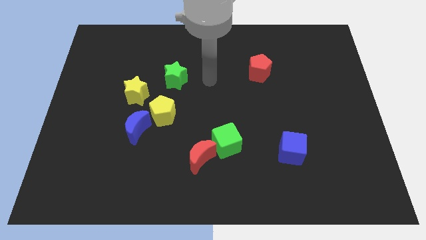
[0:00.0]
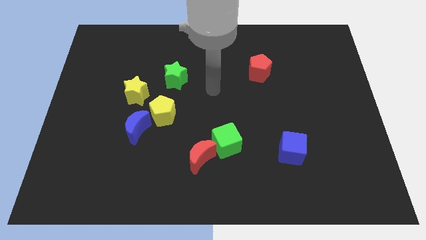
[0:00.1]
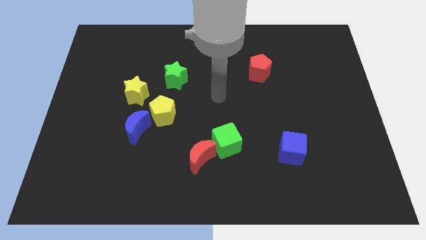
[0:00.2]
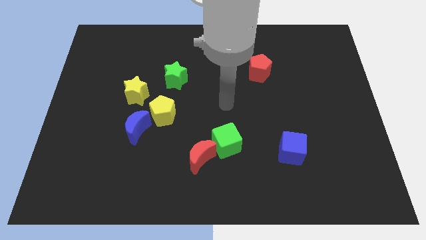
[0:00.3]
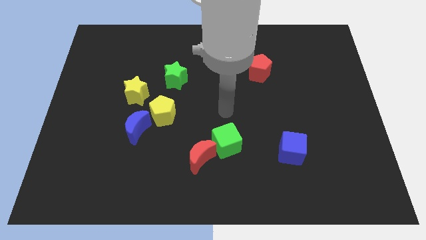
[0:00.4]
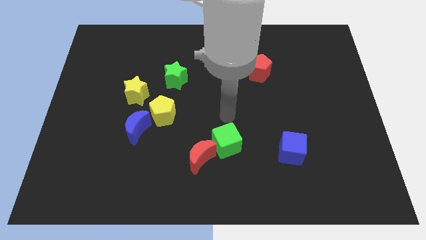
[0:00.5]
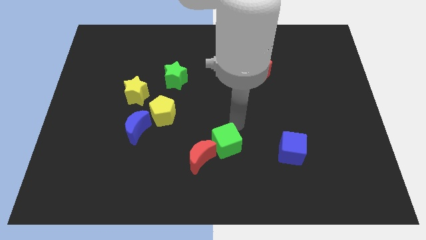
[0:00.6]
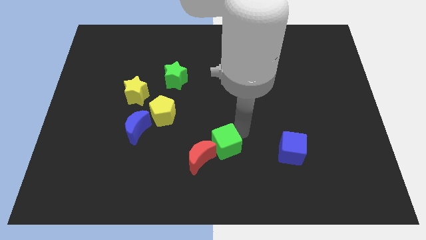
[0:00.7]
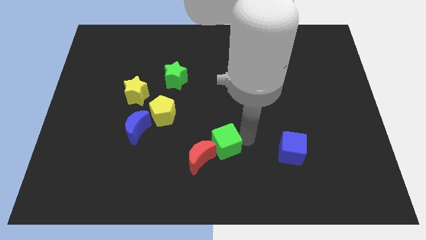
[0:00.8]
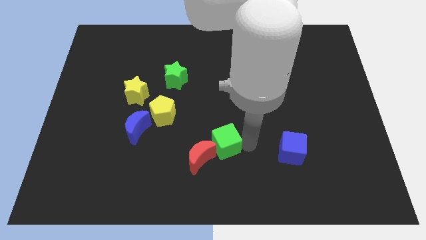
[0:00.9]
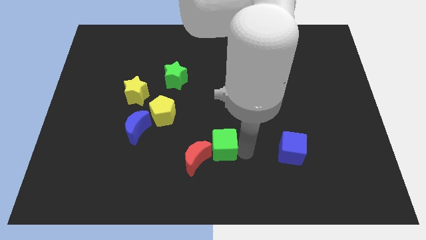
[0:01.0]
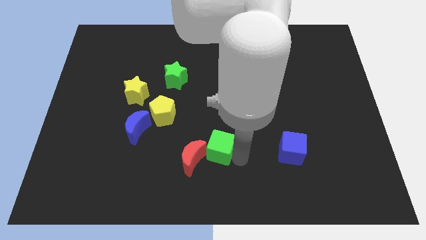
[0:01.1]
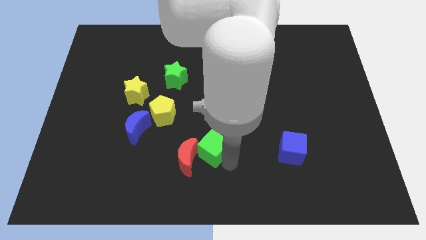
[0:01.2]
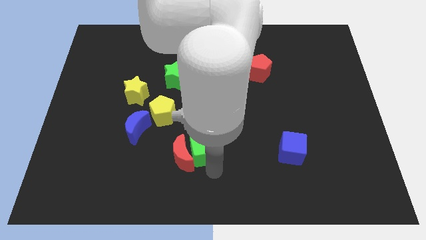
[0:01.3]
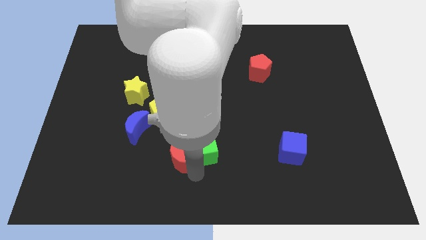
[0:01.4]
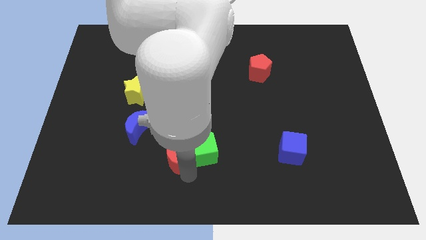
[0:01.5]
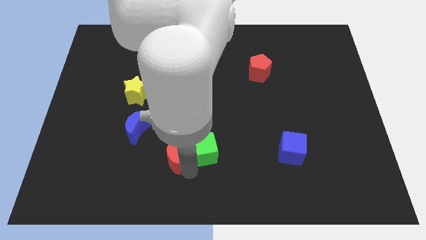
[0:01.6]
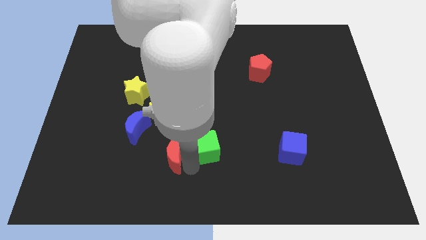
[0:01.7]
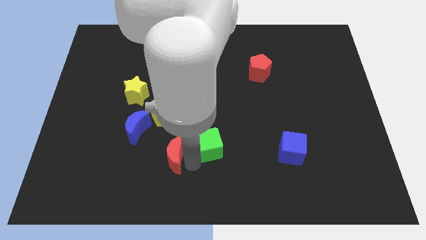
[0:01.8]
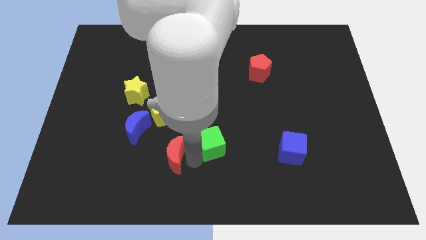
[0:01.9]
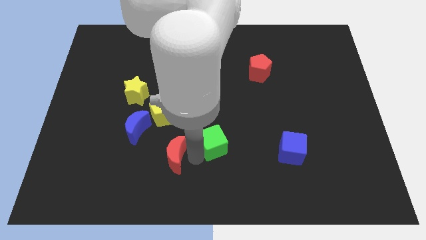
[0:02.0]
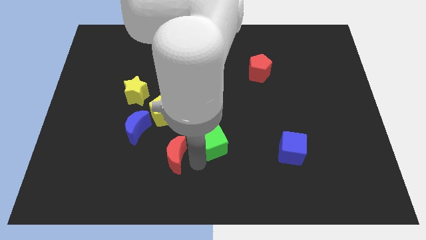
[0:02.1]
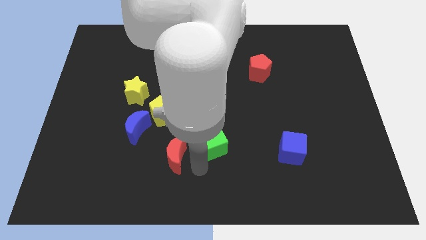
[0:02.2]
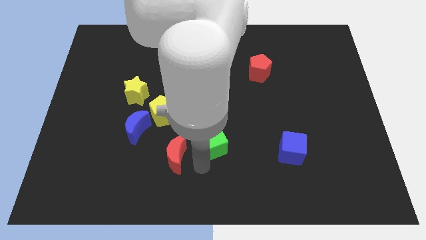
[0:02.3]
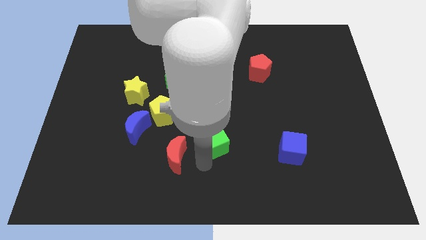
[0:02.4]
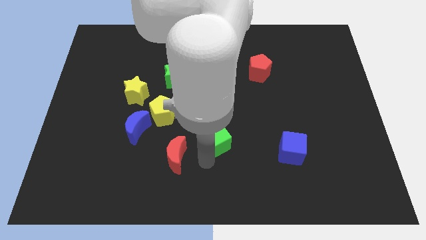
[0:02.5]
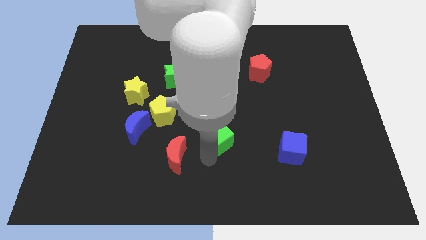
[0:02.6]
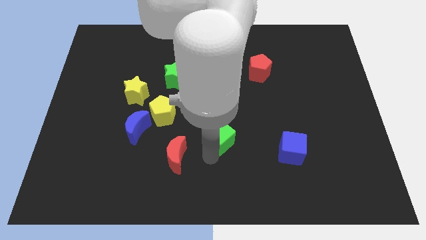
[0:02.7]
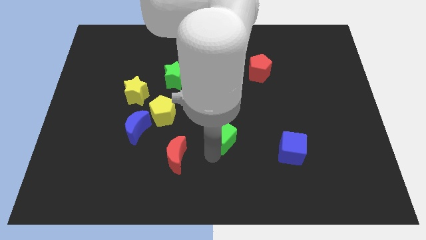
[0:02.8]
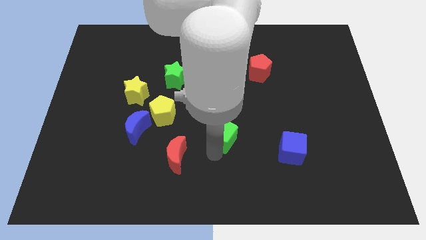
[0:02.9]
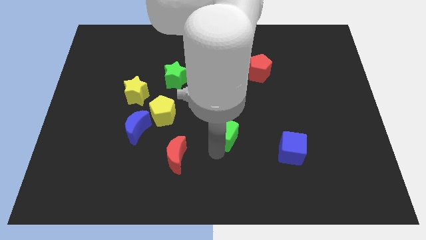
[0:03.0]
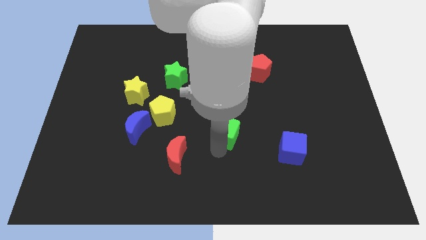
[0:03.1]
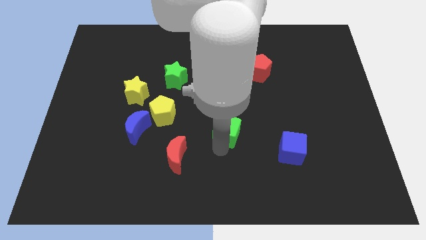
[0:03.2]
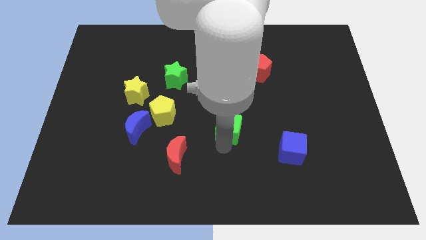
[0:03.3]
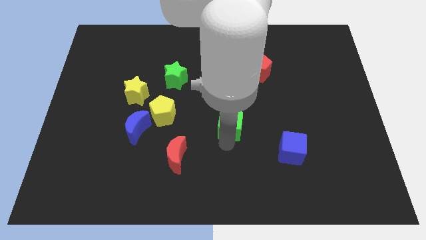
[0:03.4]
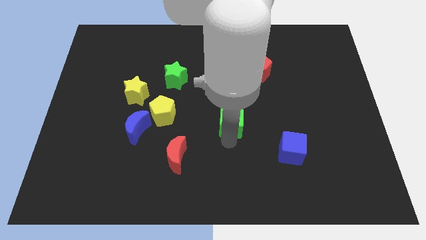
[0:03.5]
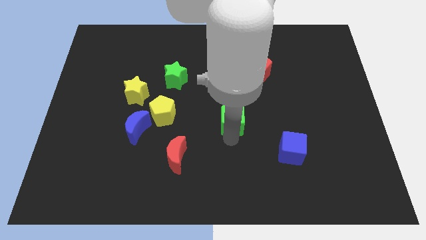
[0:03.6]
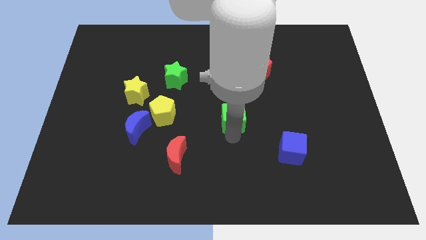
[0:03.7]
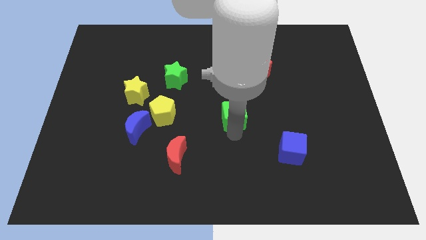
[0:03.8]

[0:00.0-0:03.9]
push the green cube upwards a bit

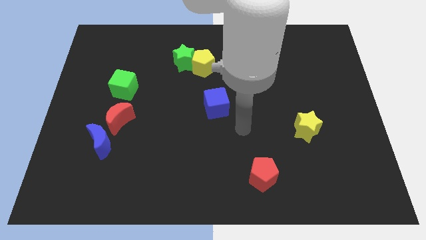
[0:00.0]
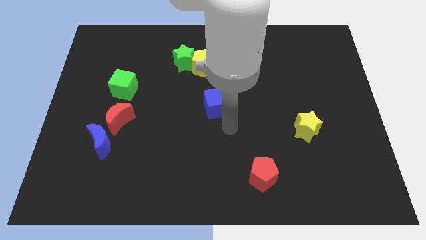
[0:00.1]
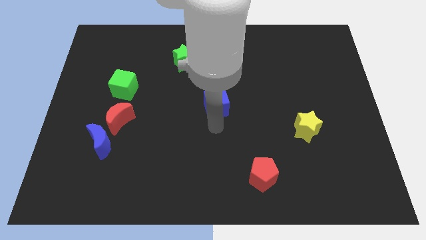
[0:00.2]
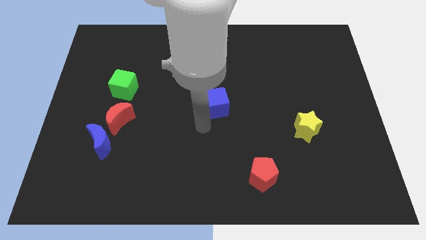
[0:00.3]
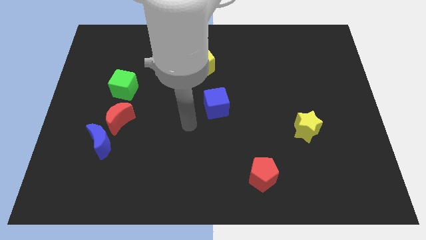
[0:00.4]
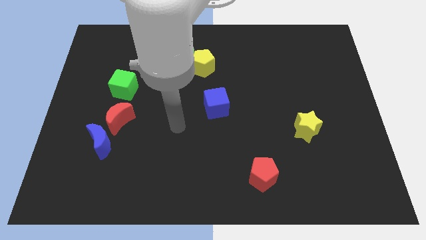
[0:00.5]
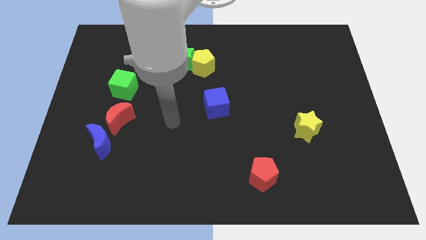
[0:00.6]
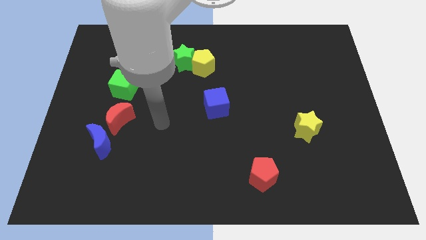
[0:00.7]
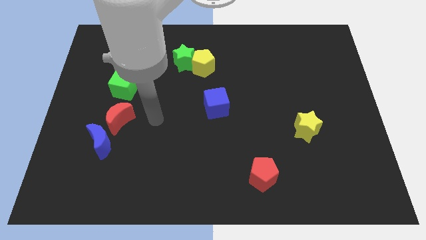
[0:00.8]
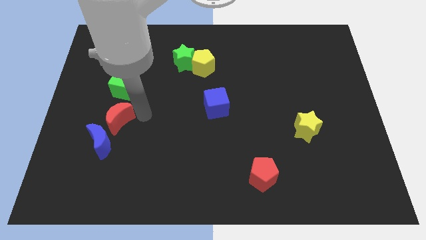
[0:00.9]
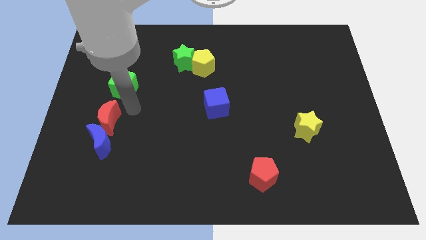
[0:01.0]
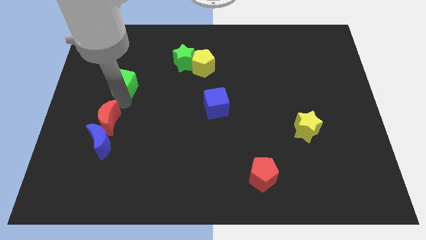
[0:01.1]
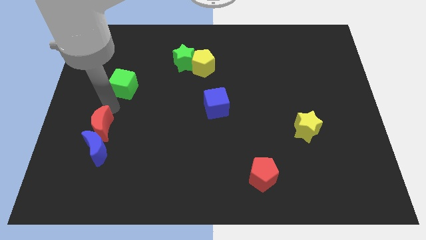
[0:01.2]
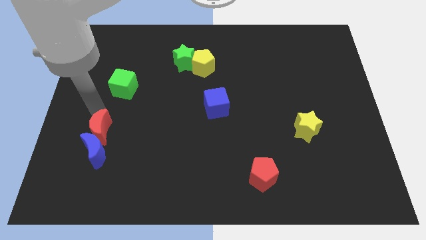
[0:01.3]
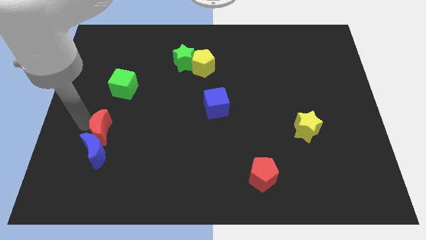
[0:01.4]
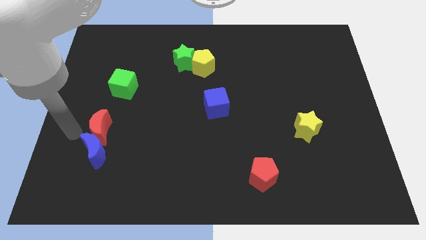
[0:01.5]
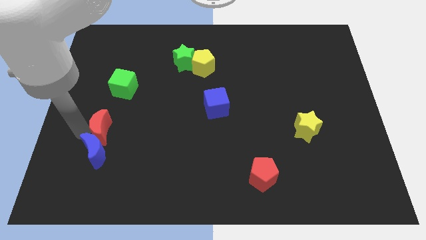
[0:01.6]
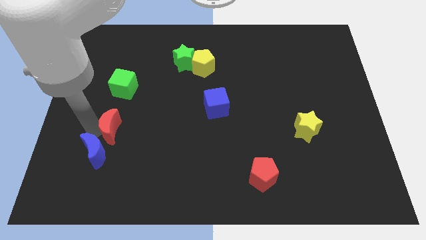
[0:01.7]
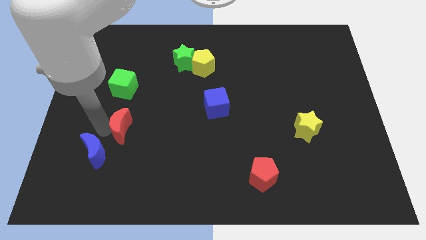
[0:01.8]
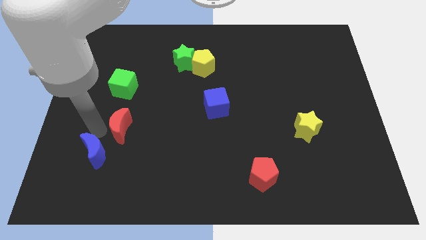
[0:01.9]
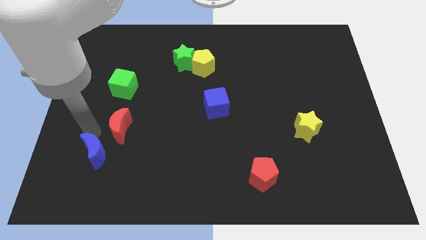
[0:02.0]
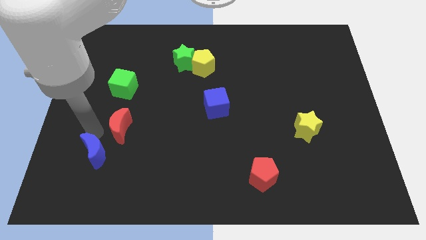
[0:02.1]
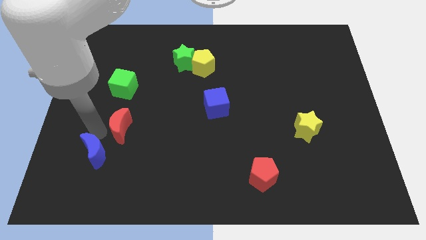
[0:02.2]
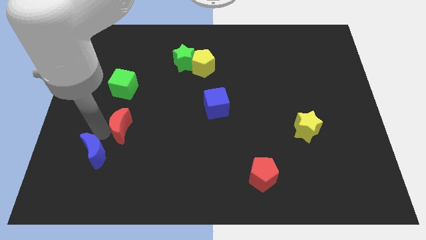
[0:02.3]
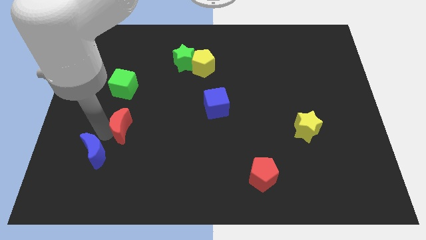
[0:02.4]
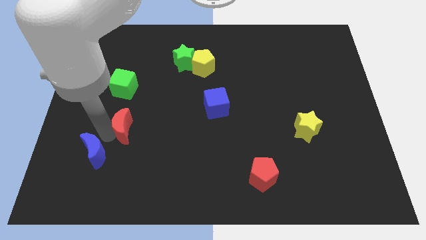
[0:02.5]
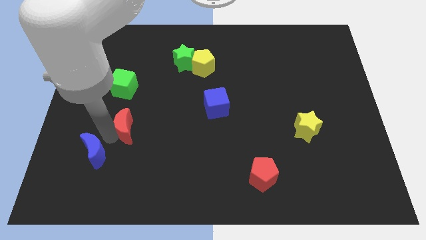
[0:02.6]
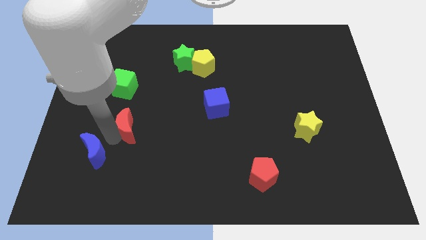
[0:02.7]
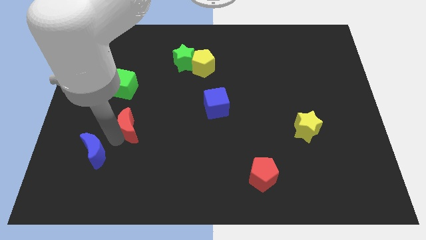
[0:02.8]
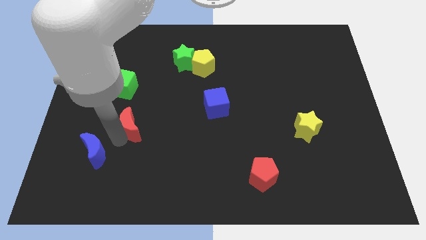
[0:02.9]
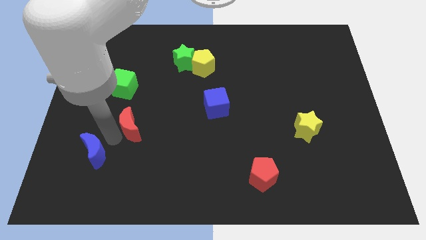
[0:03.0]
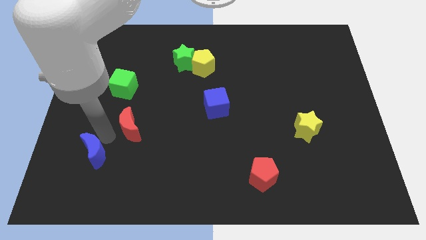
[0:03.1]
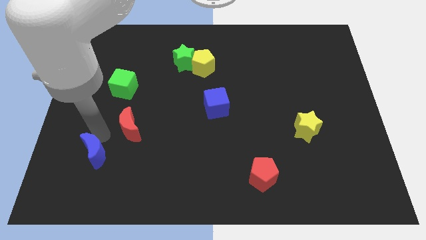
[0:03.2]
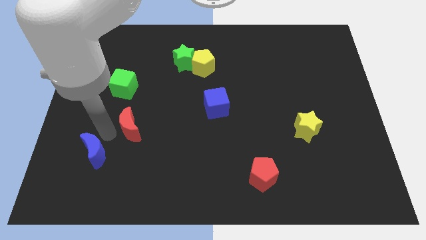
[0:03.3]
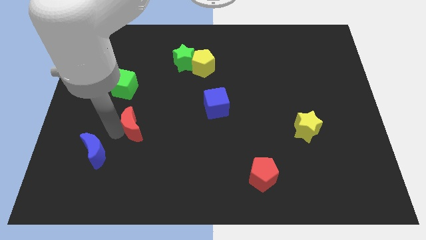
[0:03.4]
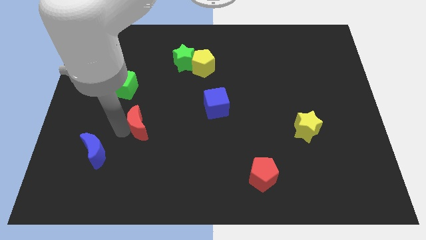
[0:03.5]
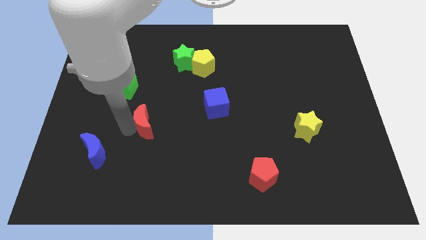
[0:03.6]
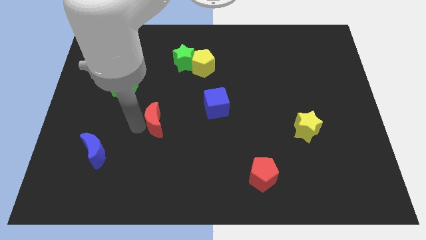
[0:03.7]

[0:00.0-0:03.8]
slightly push the red moon right
